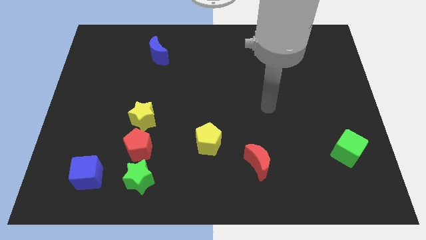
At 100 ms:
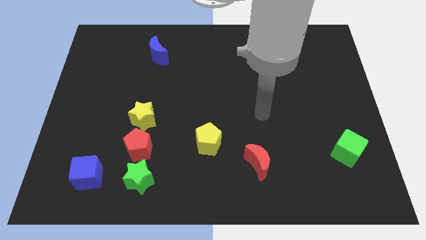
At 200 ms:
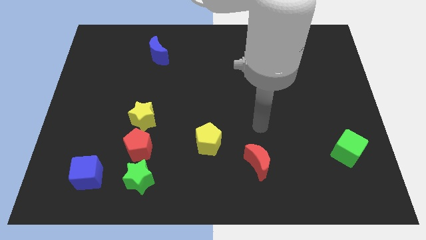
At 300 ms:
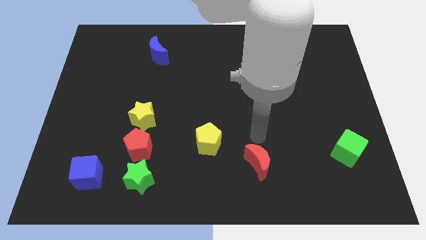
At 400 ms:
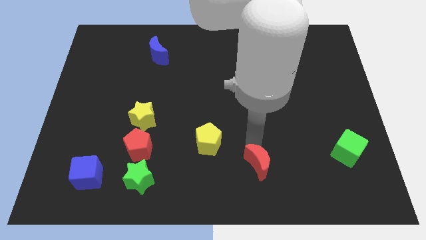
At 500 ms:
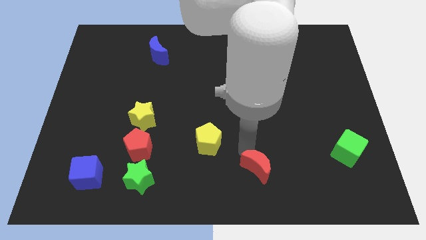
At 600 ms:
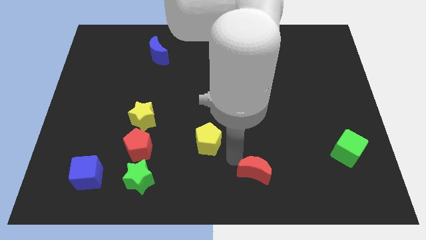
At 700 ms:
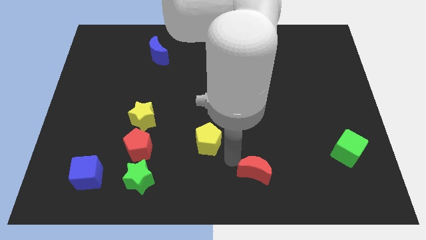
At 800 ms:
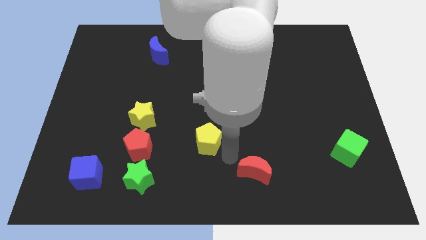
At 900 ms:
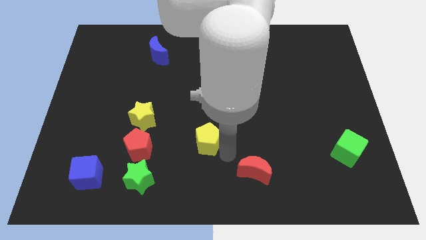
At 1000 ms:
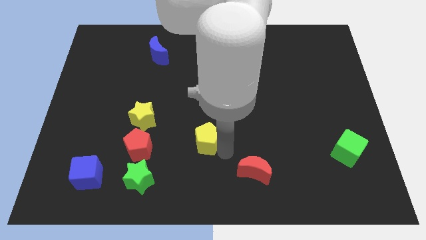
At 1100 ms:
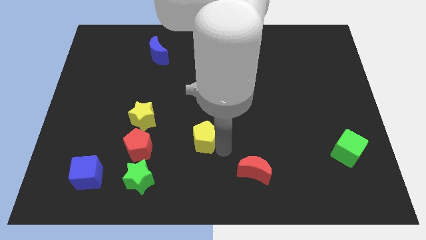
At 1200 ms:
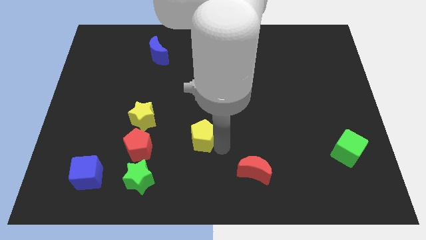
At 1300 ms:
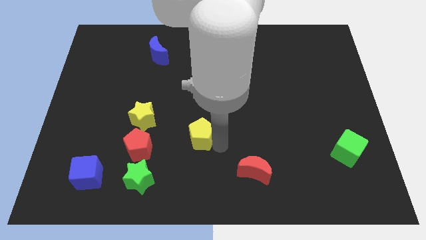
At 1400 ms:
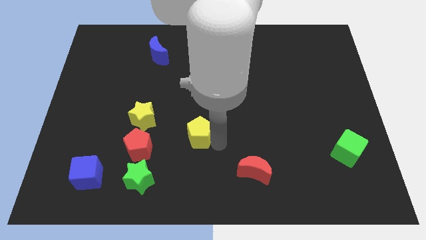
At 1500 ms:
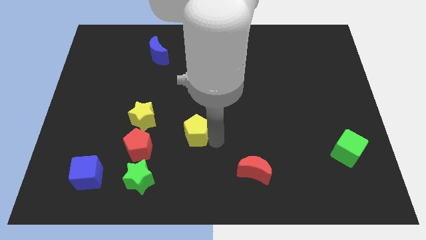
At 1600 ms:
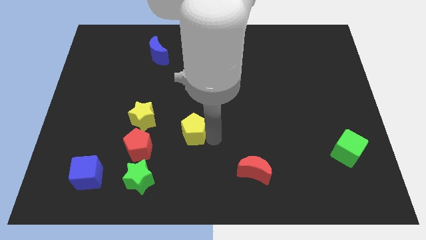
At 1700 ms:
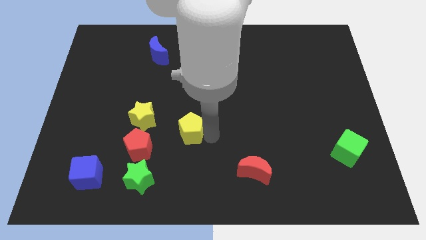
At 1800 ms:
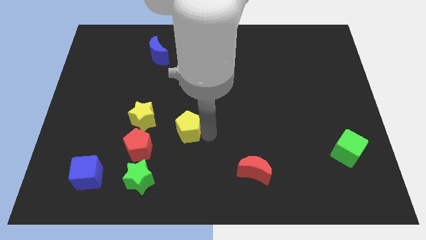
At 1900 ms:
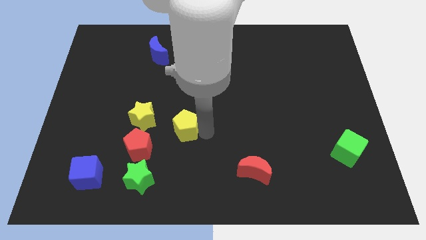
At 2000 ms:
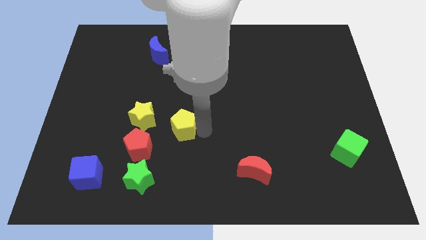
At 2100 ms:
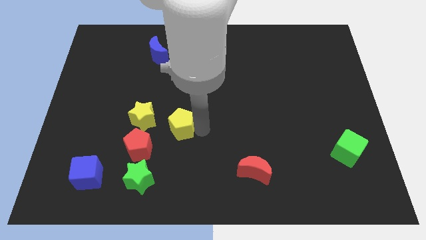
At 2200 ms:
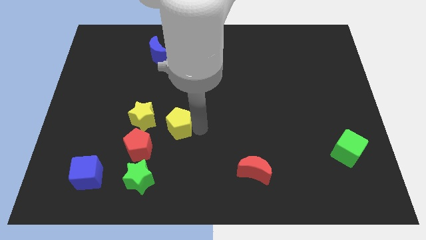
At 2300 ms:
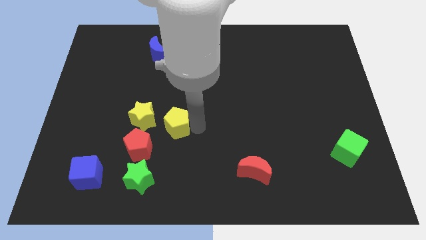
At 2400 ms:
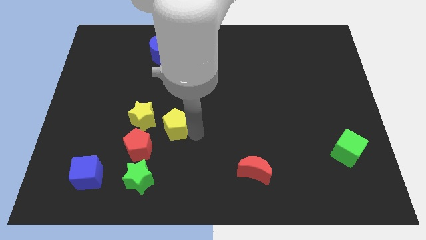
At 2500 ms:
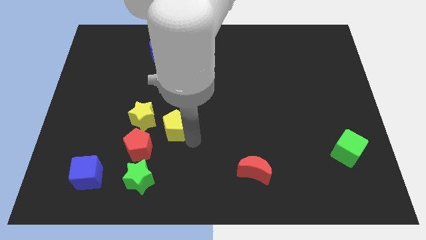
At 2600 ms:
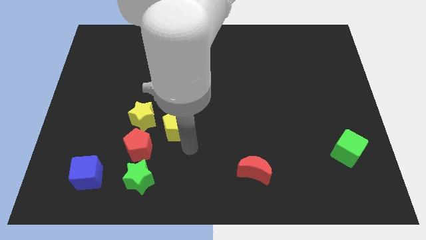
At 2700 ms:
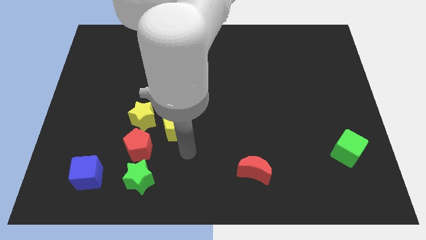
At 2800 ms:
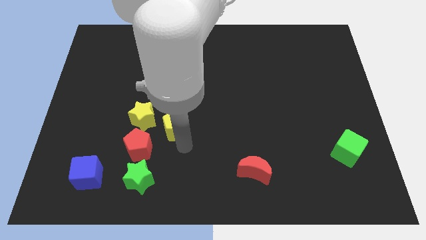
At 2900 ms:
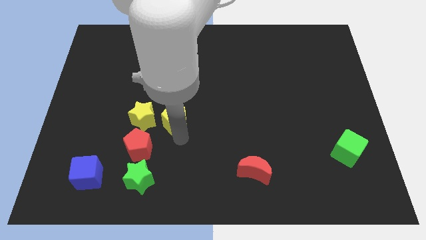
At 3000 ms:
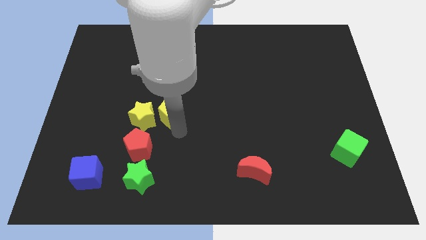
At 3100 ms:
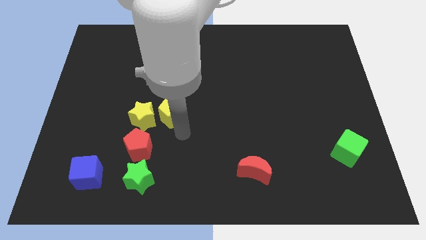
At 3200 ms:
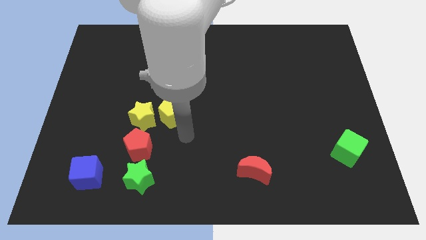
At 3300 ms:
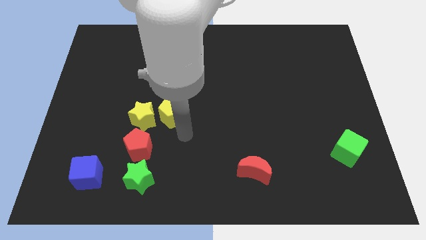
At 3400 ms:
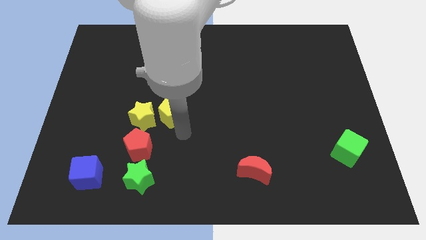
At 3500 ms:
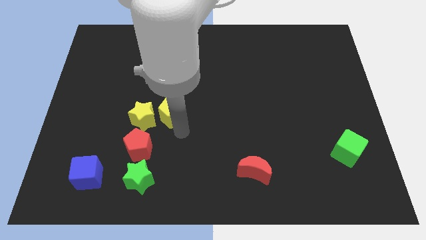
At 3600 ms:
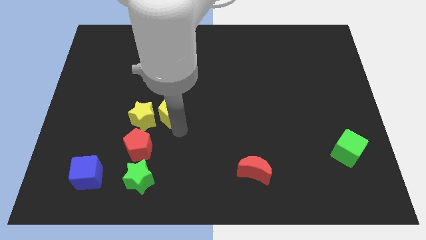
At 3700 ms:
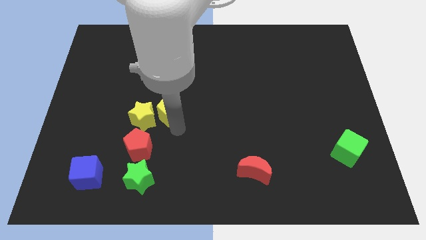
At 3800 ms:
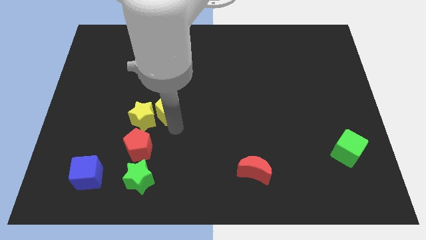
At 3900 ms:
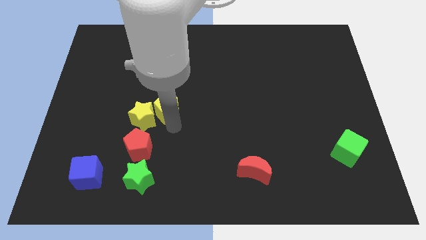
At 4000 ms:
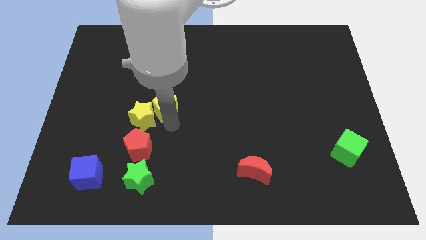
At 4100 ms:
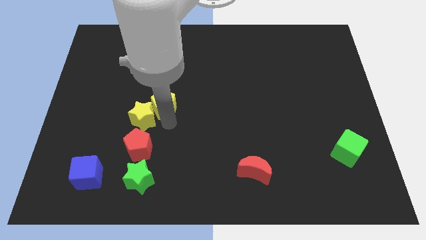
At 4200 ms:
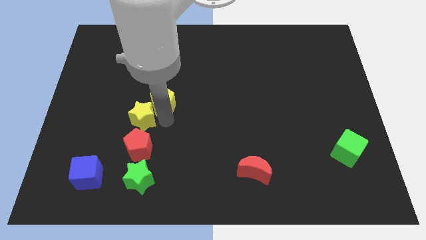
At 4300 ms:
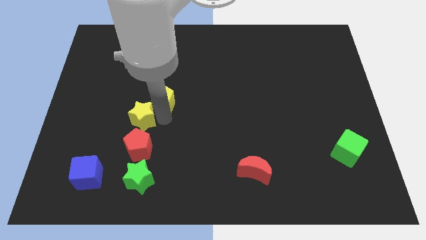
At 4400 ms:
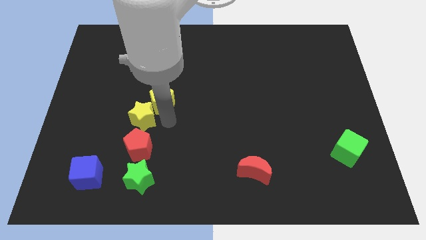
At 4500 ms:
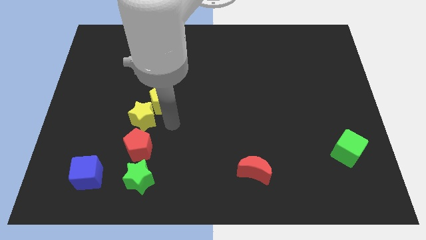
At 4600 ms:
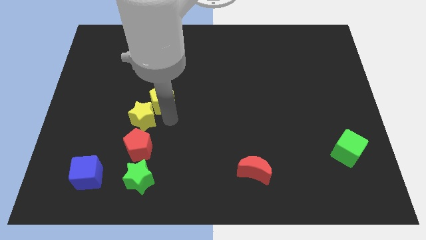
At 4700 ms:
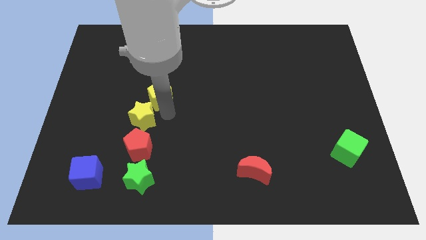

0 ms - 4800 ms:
put the yellow pentagon to the bottom of the blue moon

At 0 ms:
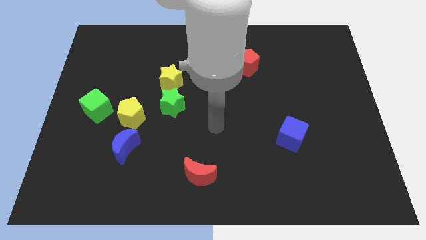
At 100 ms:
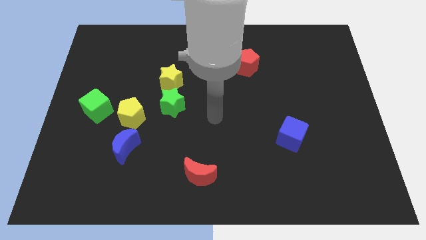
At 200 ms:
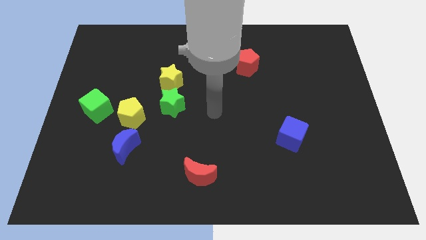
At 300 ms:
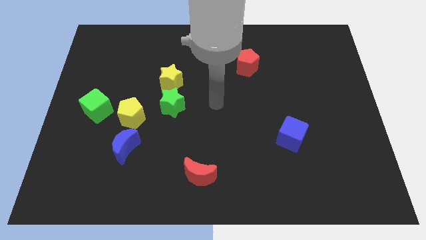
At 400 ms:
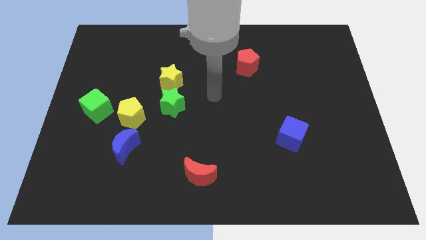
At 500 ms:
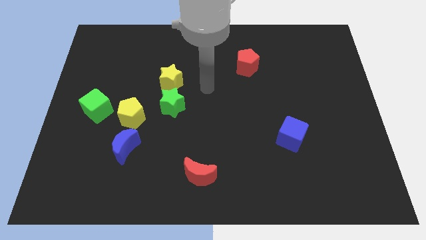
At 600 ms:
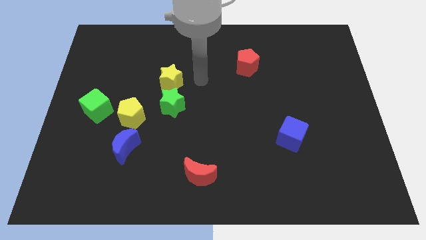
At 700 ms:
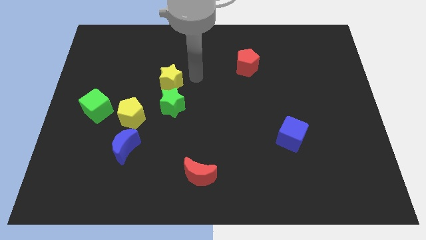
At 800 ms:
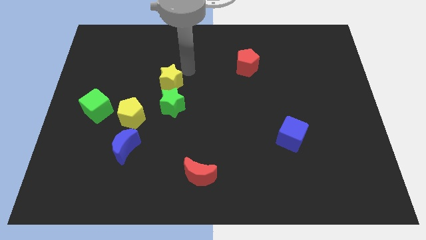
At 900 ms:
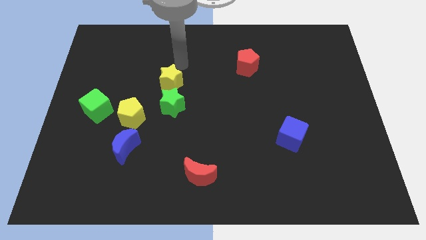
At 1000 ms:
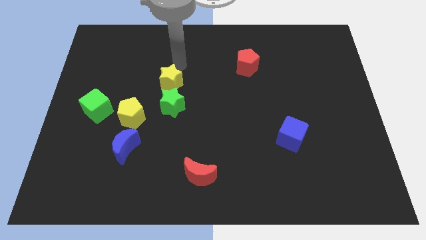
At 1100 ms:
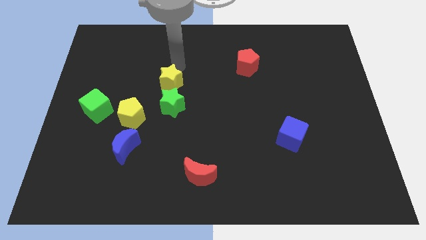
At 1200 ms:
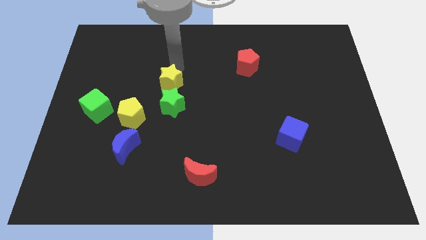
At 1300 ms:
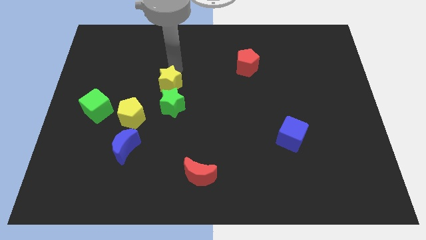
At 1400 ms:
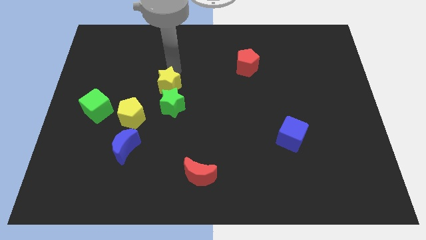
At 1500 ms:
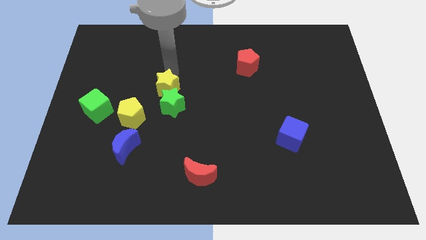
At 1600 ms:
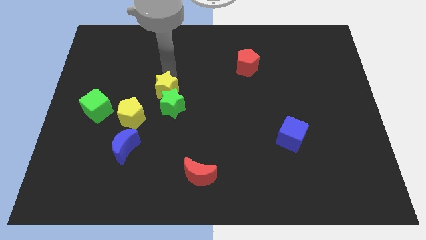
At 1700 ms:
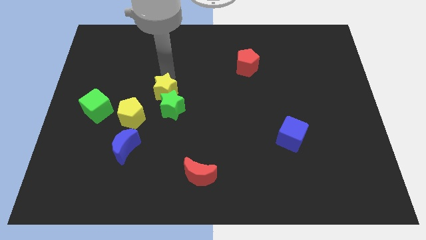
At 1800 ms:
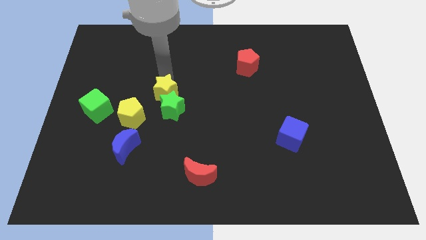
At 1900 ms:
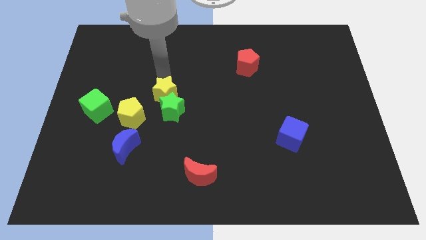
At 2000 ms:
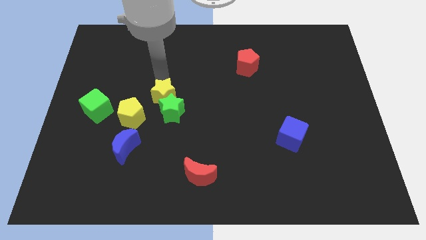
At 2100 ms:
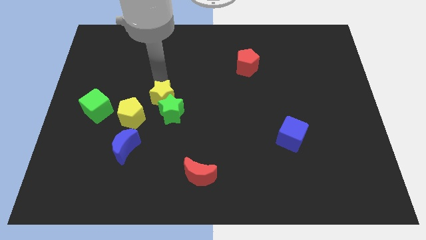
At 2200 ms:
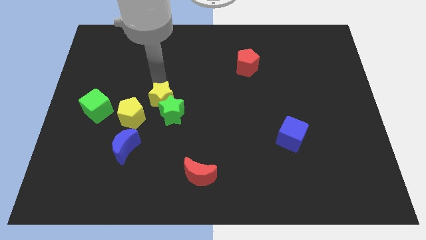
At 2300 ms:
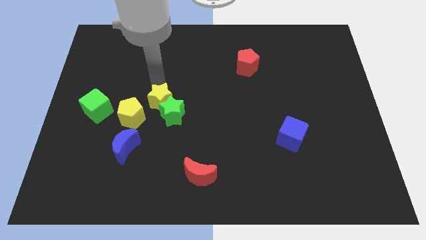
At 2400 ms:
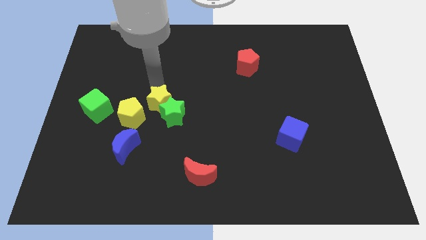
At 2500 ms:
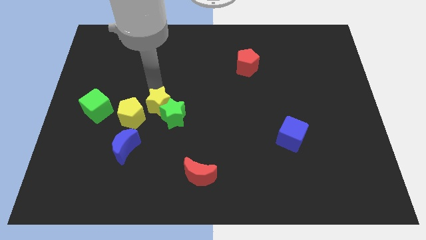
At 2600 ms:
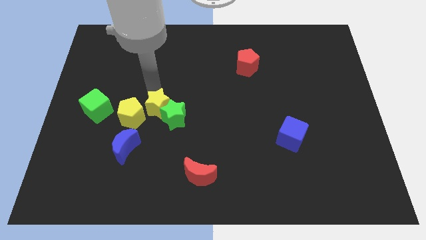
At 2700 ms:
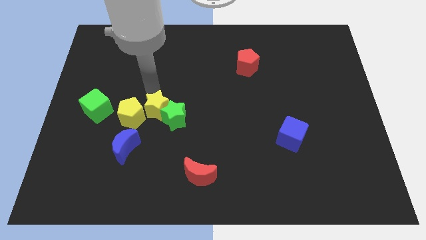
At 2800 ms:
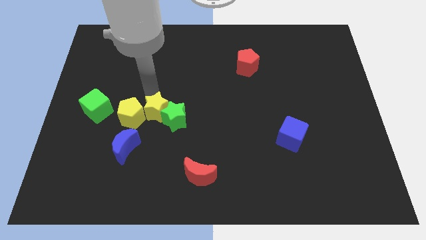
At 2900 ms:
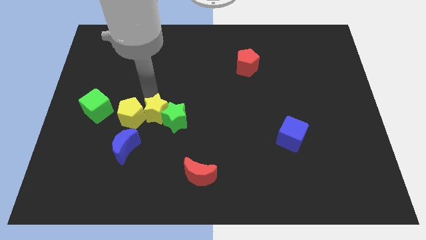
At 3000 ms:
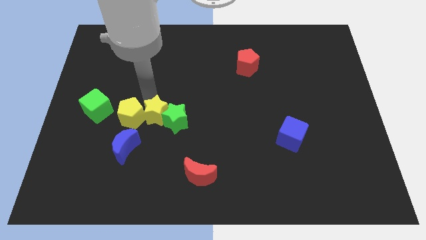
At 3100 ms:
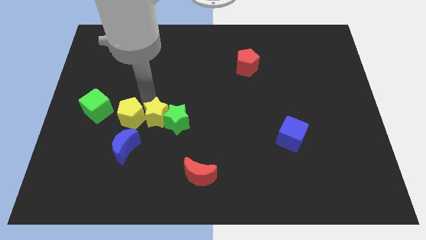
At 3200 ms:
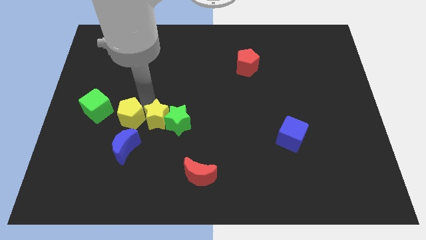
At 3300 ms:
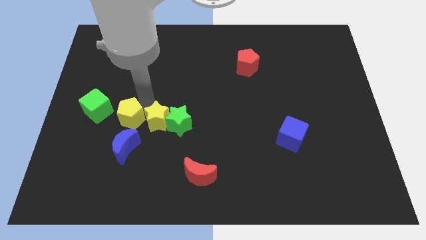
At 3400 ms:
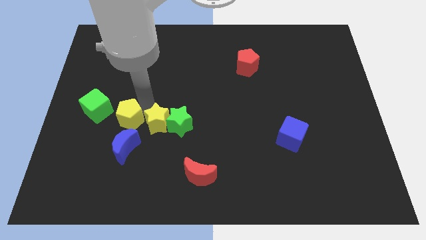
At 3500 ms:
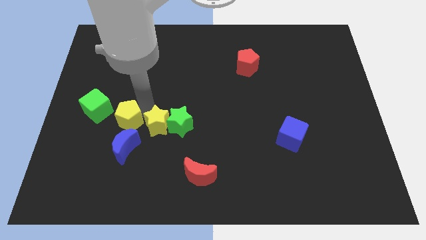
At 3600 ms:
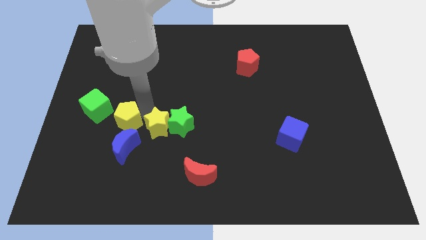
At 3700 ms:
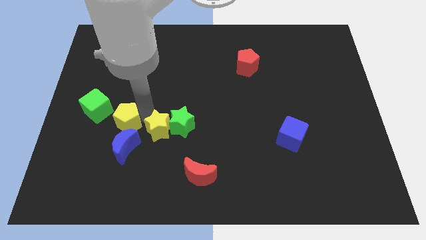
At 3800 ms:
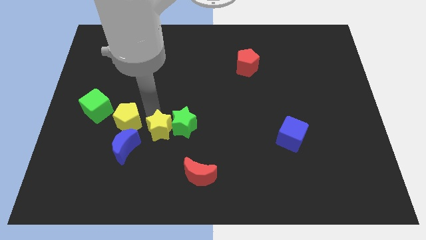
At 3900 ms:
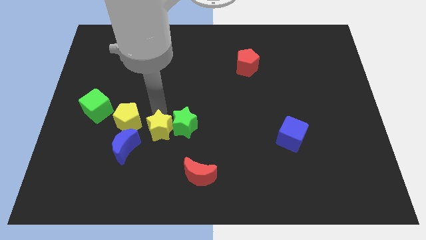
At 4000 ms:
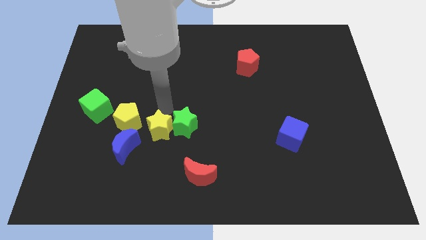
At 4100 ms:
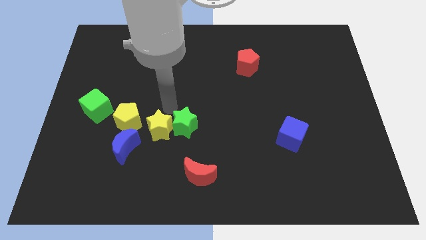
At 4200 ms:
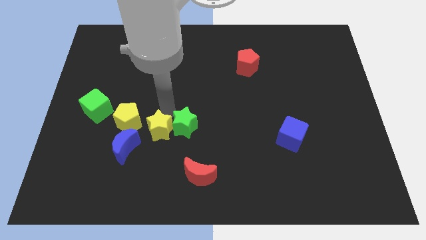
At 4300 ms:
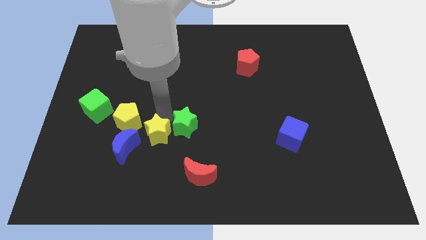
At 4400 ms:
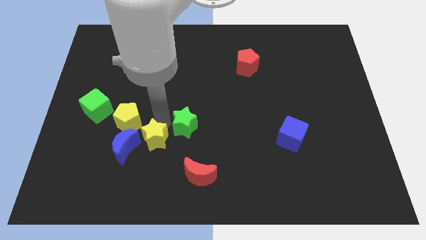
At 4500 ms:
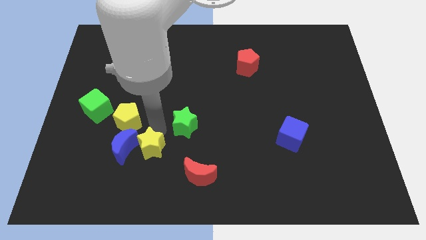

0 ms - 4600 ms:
push the yellow star diagonally down and to the right of the blue moon
